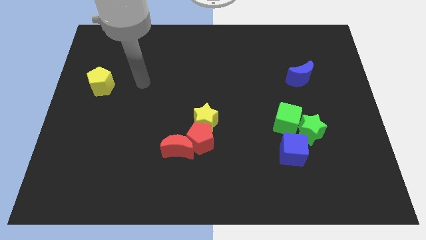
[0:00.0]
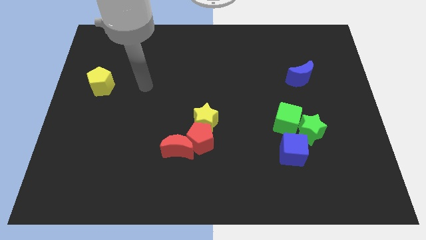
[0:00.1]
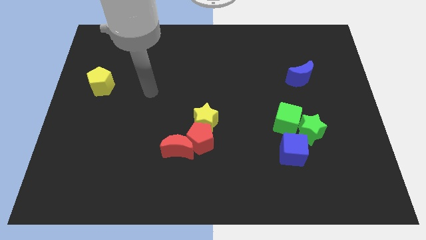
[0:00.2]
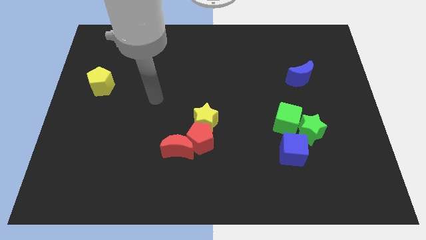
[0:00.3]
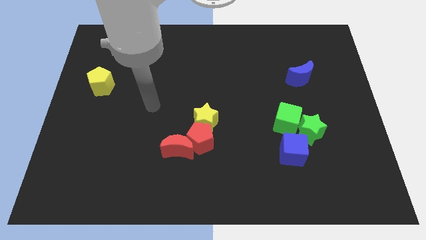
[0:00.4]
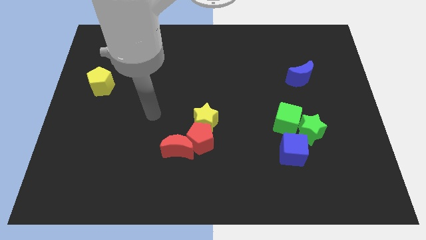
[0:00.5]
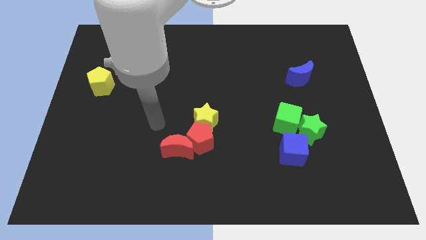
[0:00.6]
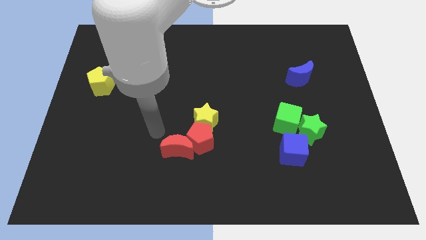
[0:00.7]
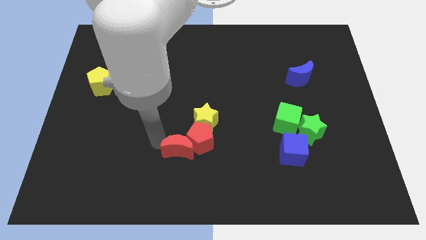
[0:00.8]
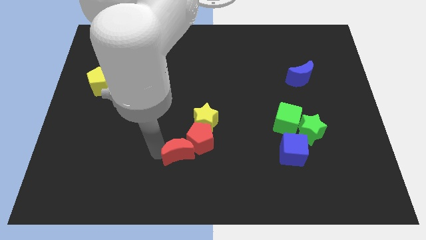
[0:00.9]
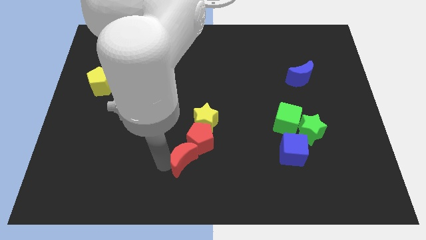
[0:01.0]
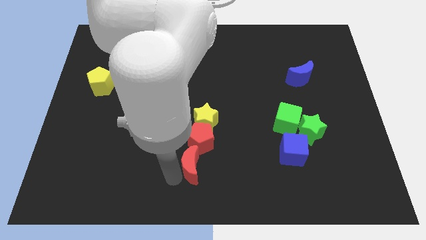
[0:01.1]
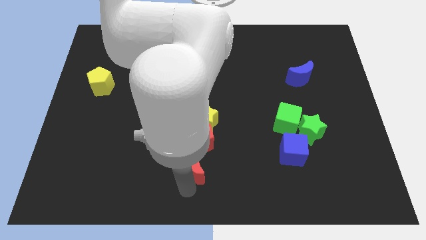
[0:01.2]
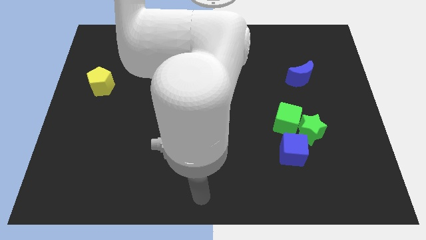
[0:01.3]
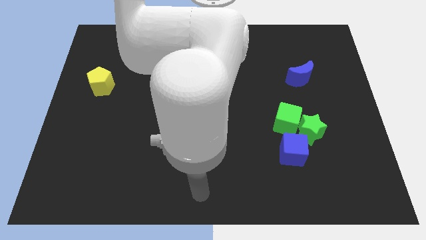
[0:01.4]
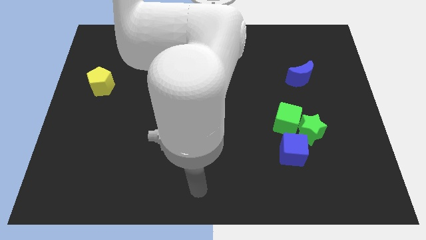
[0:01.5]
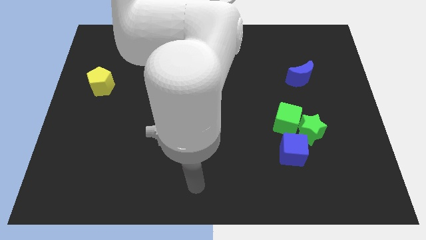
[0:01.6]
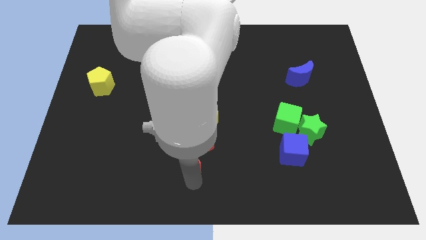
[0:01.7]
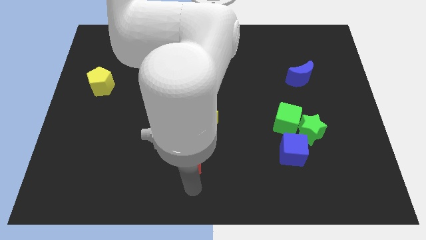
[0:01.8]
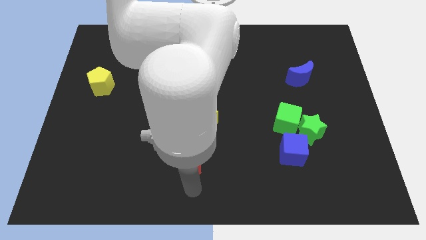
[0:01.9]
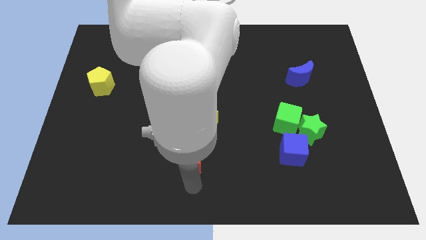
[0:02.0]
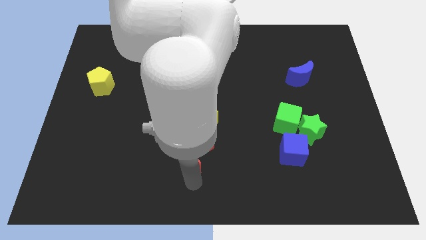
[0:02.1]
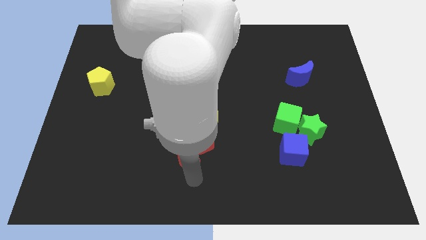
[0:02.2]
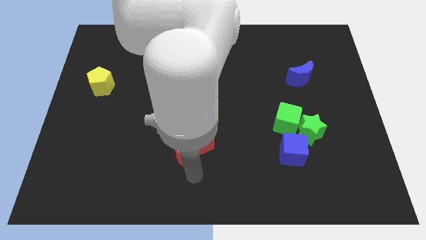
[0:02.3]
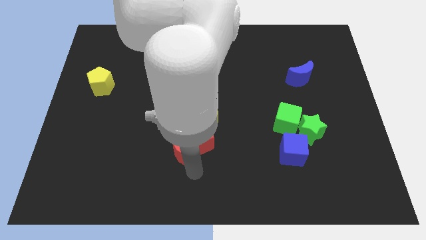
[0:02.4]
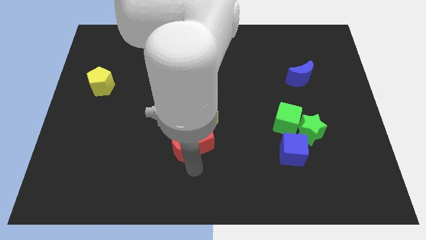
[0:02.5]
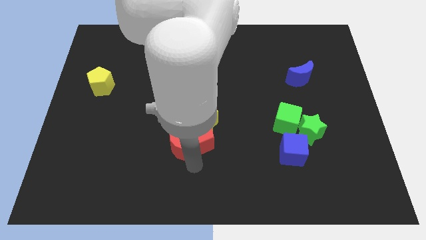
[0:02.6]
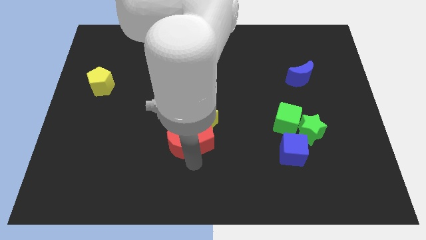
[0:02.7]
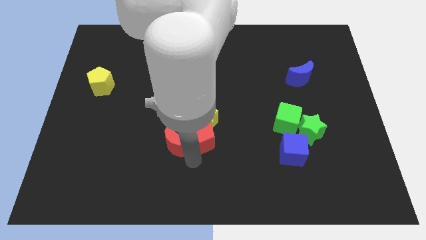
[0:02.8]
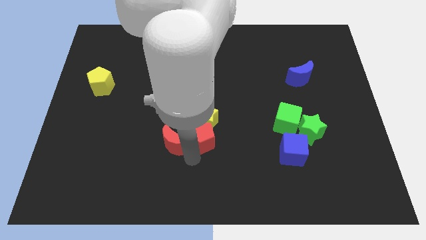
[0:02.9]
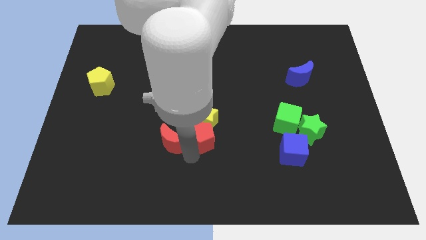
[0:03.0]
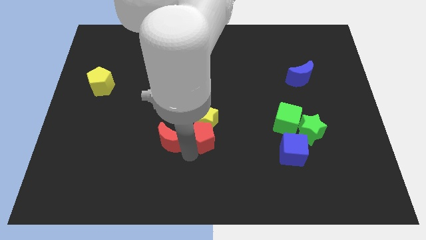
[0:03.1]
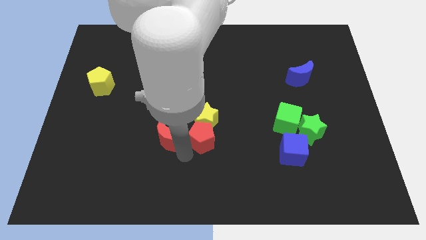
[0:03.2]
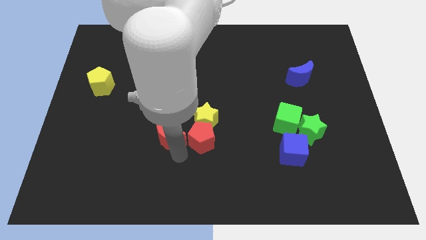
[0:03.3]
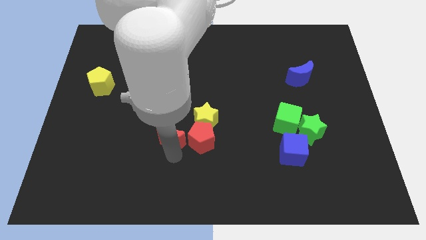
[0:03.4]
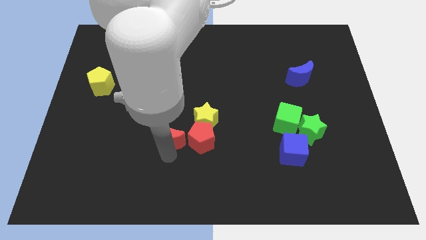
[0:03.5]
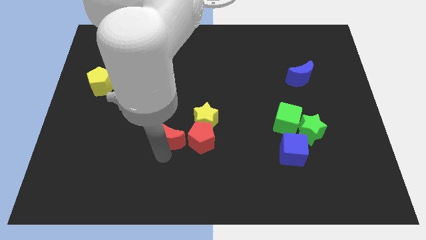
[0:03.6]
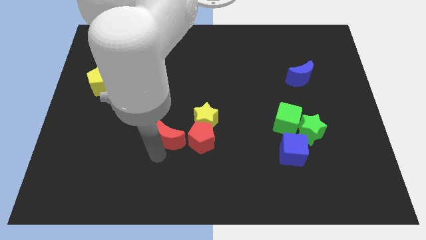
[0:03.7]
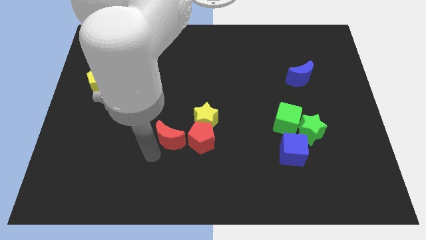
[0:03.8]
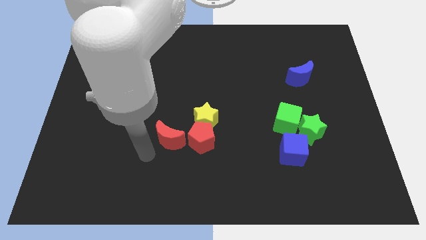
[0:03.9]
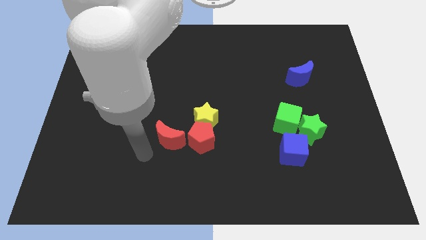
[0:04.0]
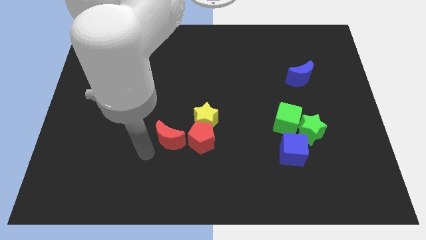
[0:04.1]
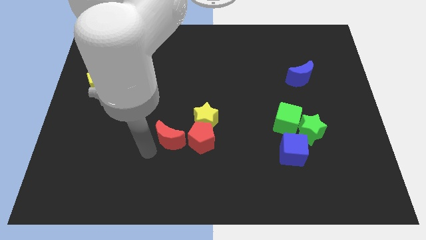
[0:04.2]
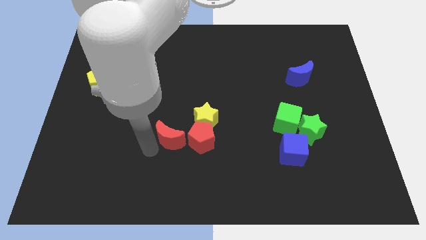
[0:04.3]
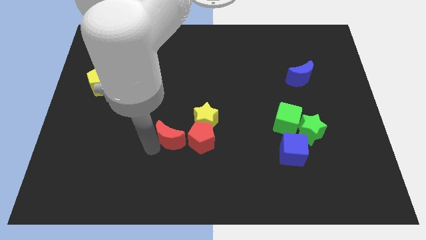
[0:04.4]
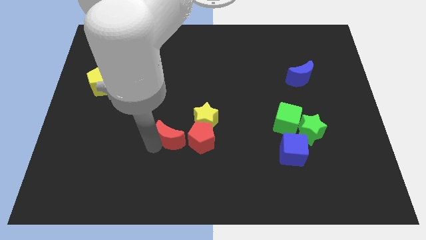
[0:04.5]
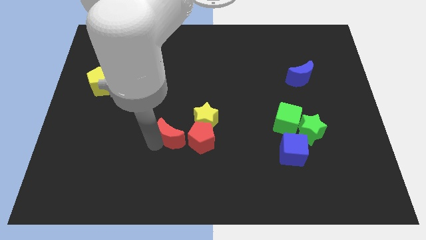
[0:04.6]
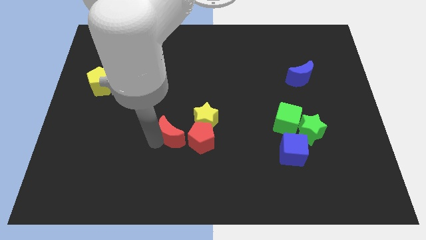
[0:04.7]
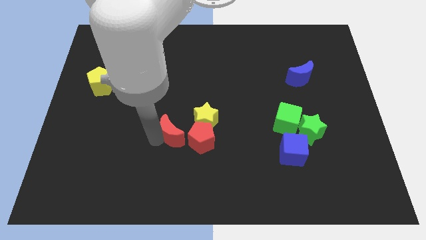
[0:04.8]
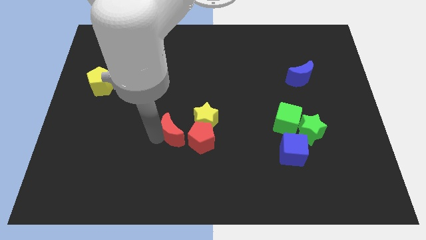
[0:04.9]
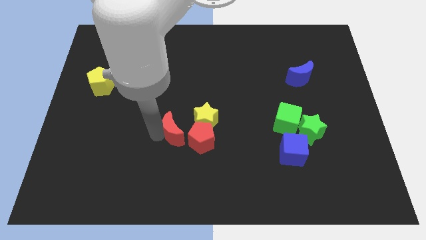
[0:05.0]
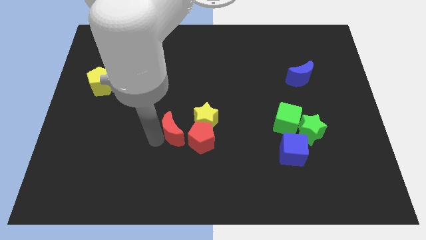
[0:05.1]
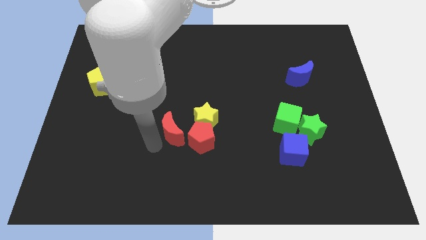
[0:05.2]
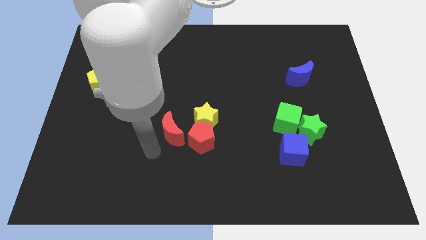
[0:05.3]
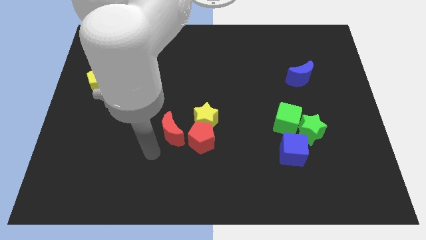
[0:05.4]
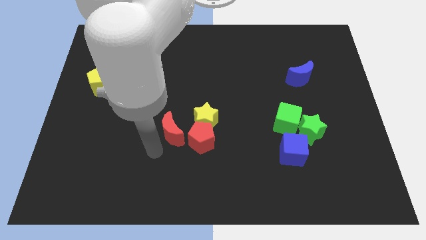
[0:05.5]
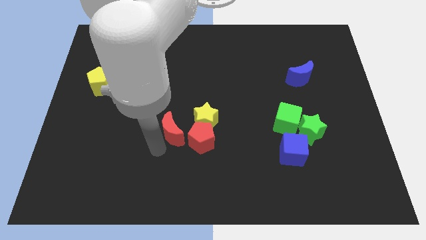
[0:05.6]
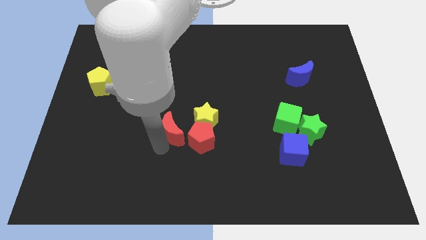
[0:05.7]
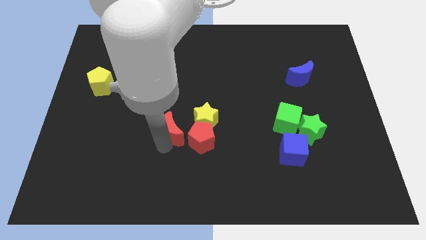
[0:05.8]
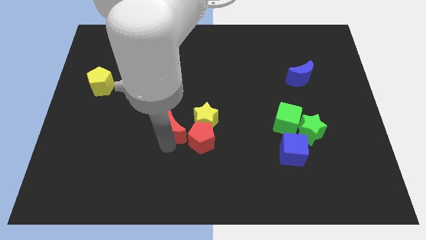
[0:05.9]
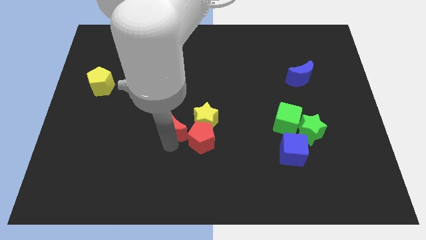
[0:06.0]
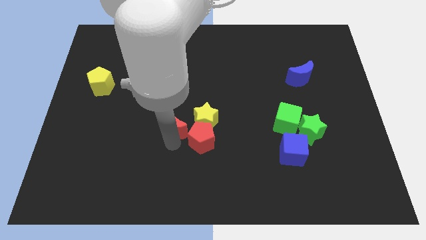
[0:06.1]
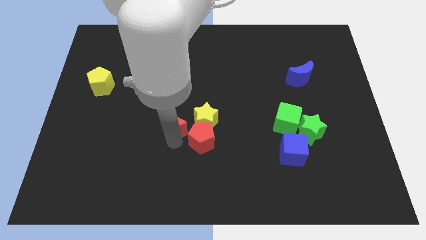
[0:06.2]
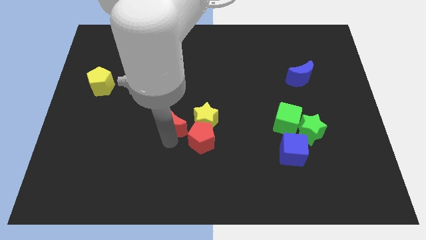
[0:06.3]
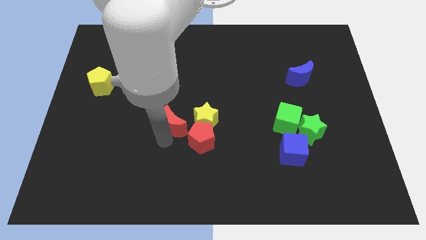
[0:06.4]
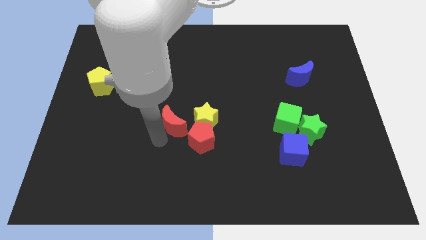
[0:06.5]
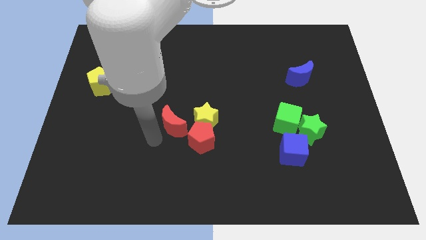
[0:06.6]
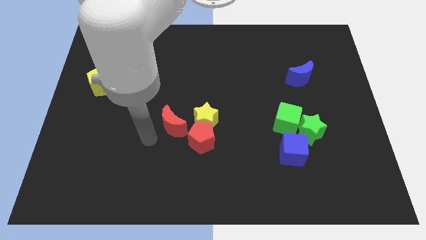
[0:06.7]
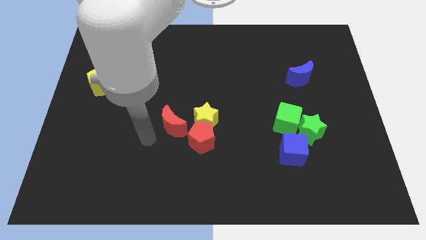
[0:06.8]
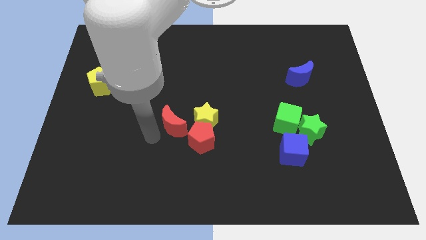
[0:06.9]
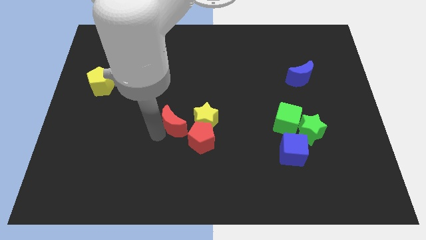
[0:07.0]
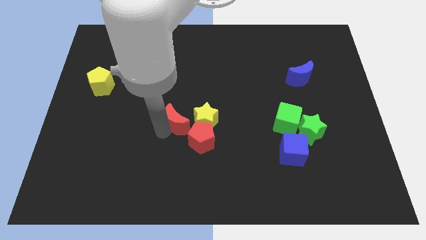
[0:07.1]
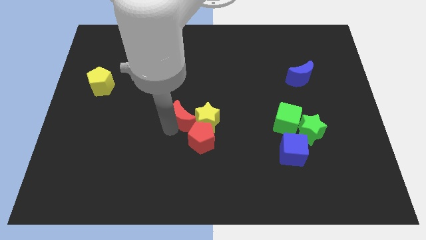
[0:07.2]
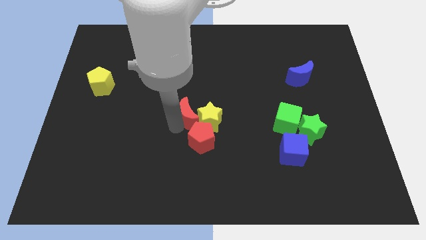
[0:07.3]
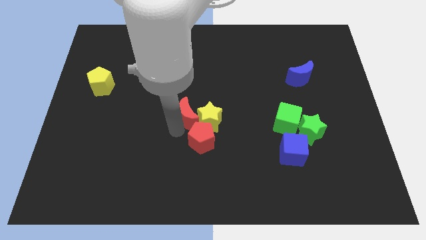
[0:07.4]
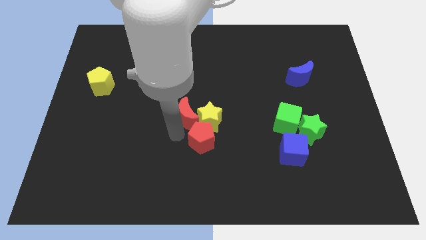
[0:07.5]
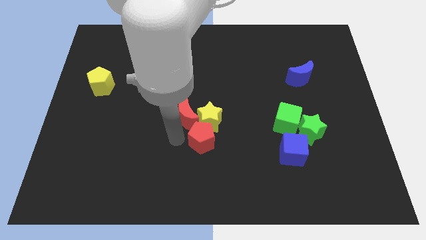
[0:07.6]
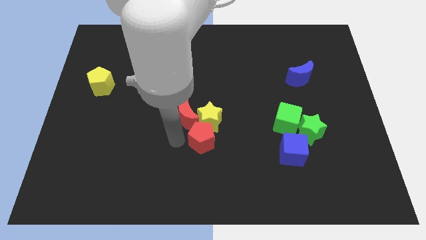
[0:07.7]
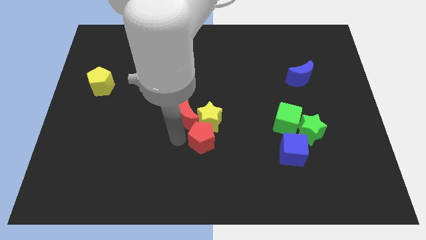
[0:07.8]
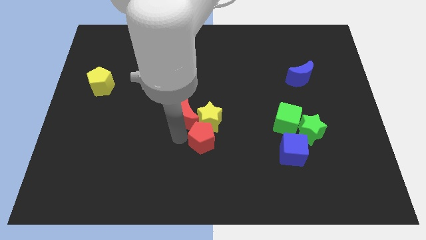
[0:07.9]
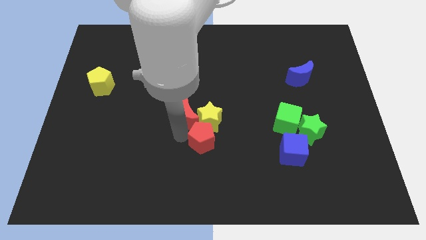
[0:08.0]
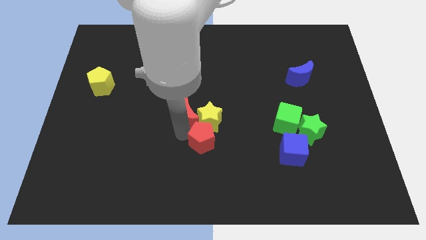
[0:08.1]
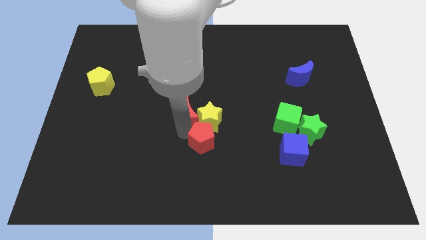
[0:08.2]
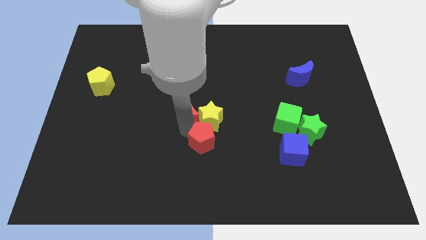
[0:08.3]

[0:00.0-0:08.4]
slide the red moon somewhat up and right
